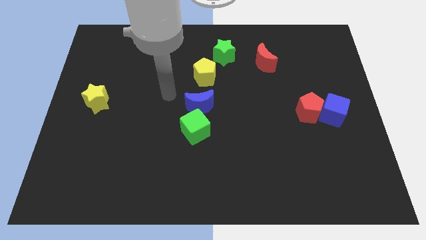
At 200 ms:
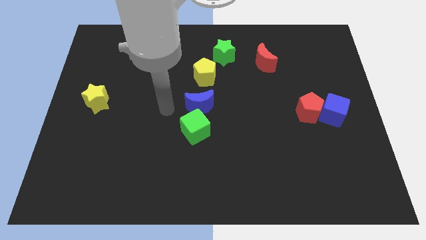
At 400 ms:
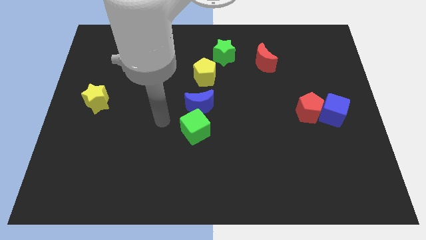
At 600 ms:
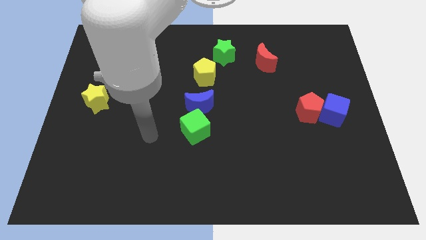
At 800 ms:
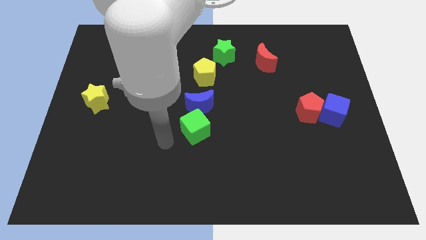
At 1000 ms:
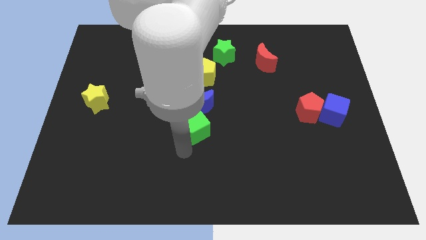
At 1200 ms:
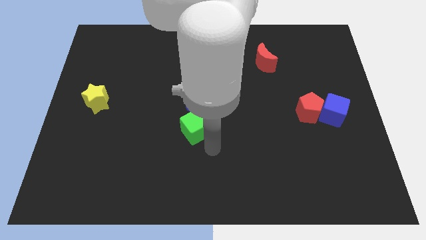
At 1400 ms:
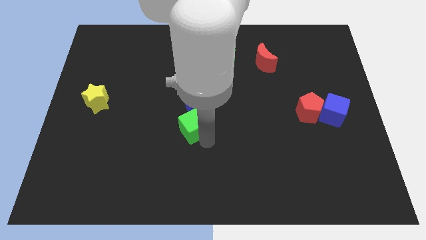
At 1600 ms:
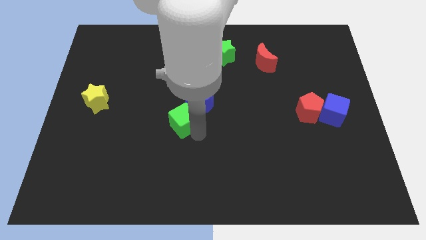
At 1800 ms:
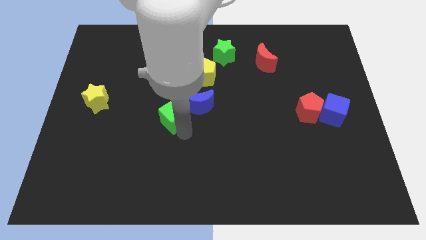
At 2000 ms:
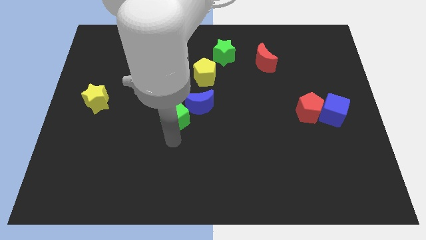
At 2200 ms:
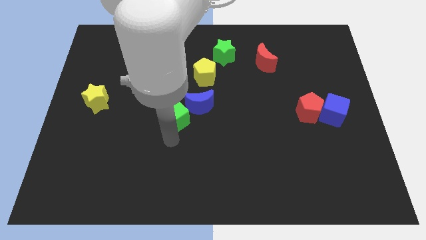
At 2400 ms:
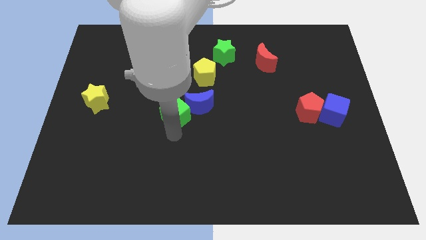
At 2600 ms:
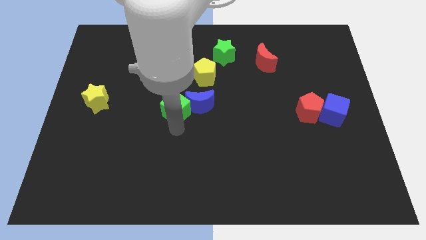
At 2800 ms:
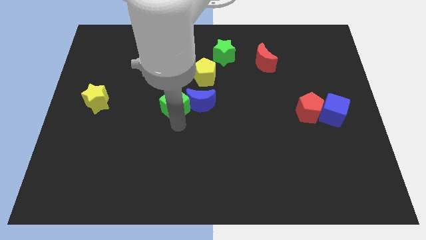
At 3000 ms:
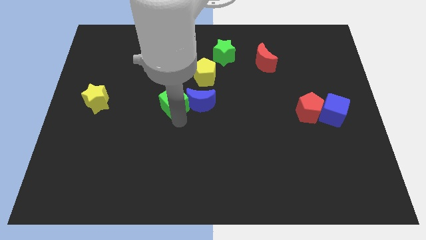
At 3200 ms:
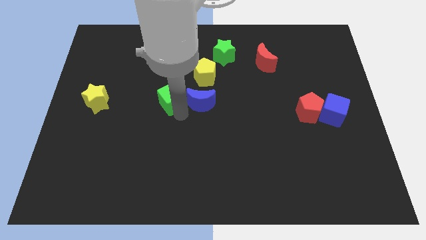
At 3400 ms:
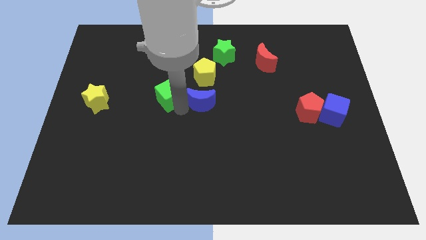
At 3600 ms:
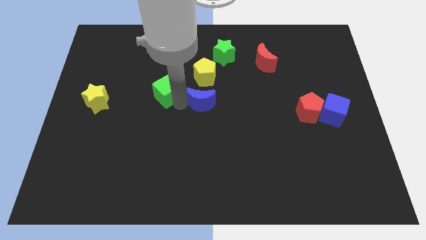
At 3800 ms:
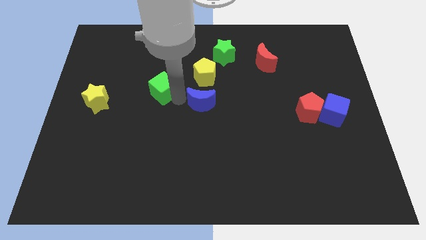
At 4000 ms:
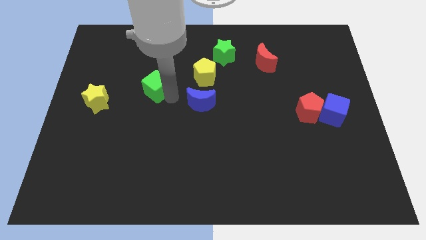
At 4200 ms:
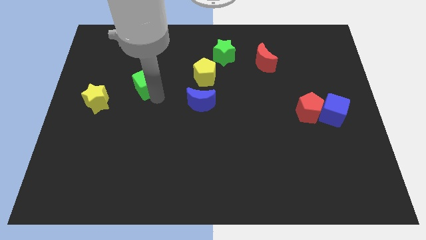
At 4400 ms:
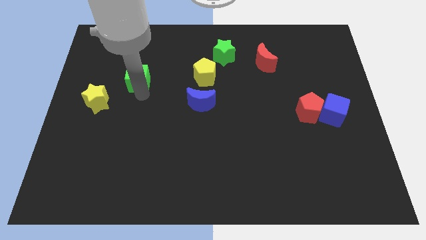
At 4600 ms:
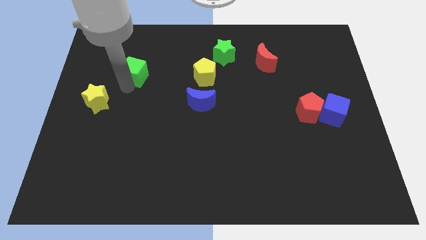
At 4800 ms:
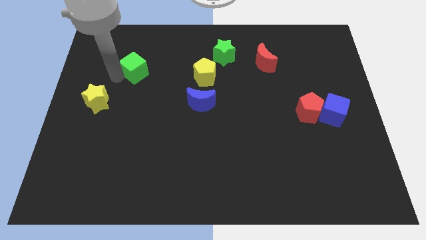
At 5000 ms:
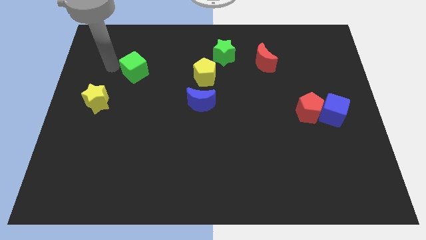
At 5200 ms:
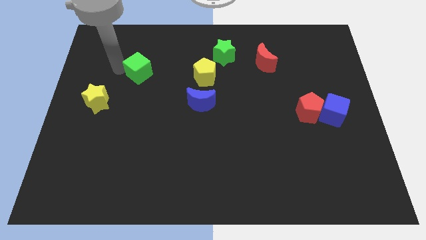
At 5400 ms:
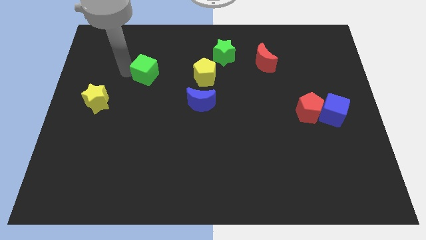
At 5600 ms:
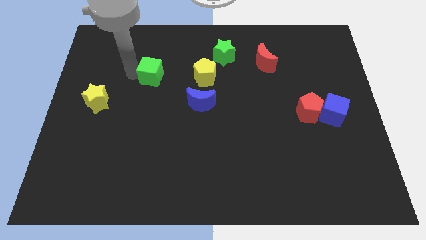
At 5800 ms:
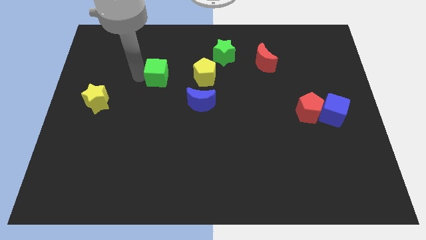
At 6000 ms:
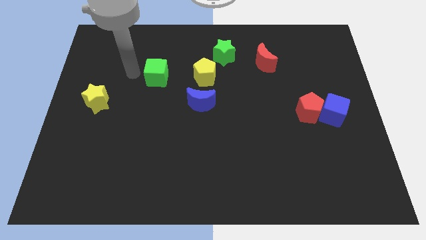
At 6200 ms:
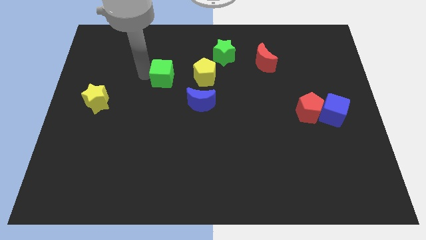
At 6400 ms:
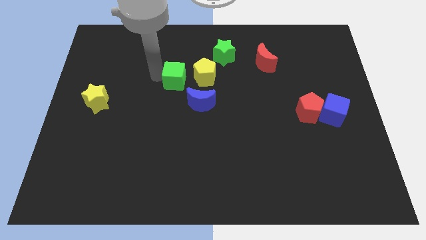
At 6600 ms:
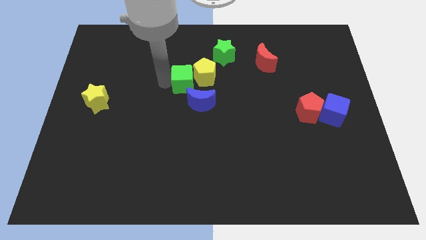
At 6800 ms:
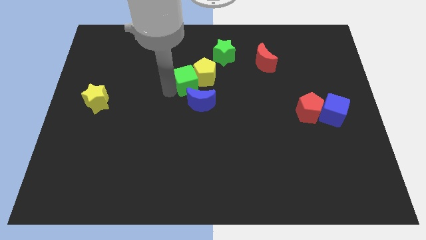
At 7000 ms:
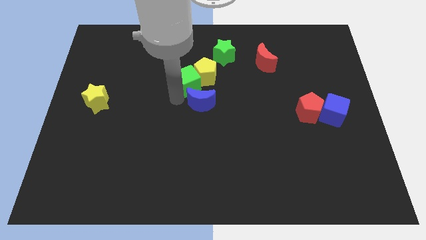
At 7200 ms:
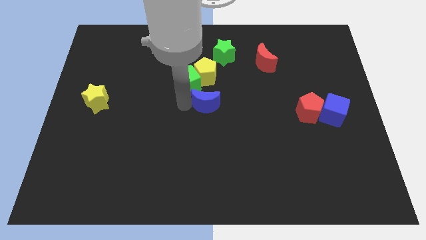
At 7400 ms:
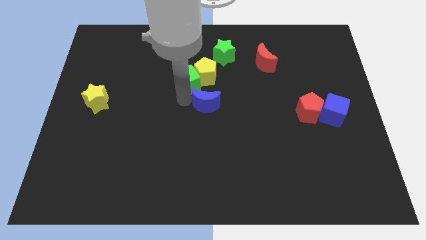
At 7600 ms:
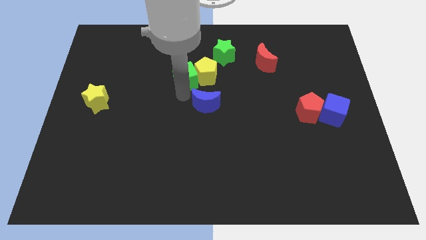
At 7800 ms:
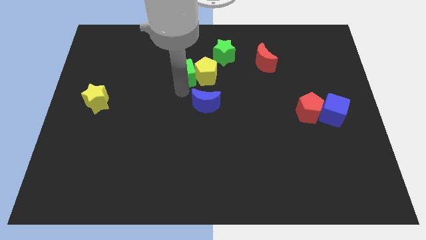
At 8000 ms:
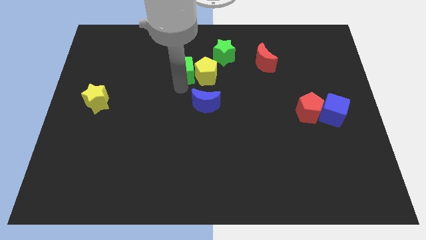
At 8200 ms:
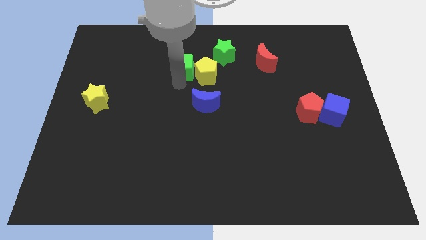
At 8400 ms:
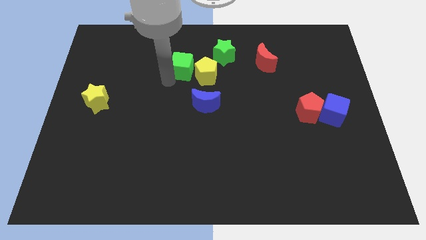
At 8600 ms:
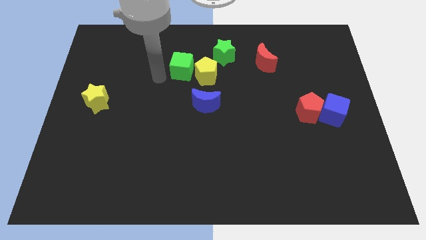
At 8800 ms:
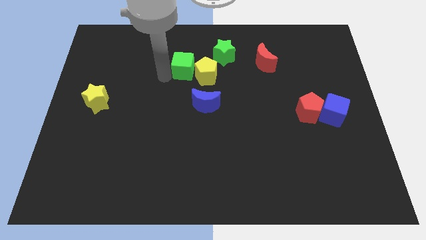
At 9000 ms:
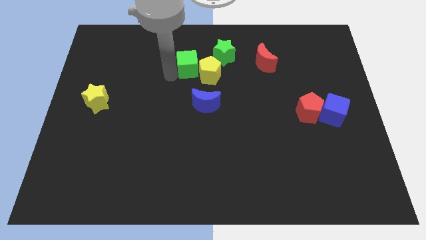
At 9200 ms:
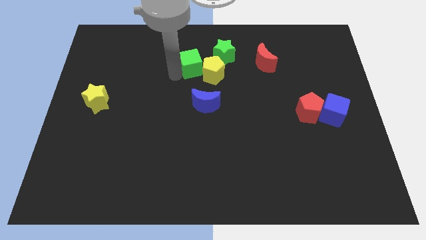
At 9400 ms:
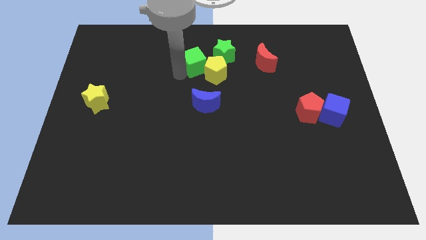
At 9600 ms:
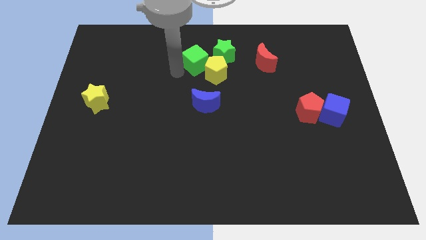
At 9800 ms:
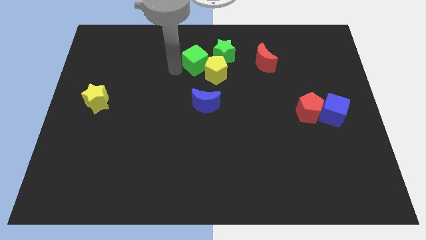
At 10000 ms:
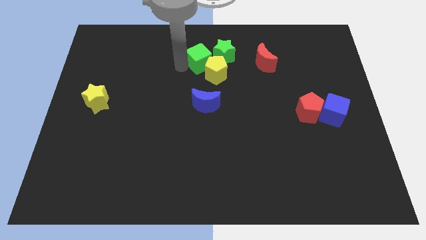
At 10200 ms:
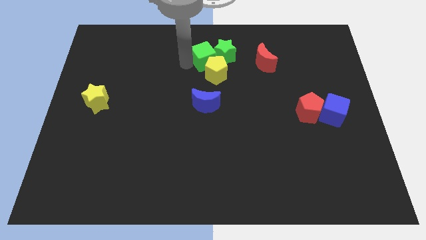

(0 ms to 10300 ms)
move the green cube towards the green star

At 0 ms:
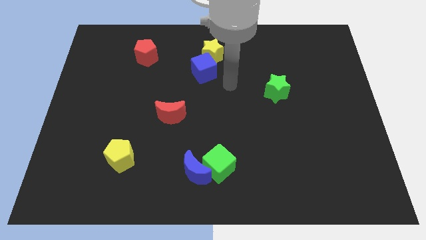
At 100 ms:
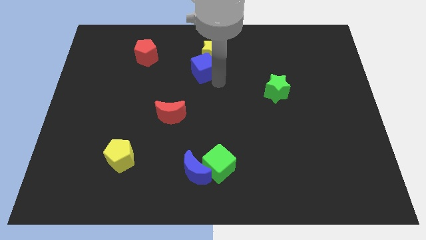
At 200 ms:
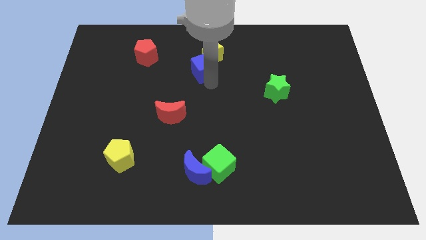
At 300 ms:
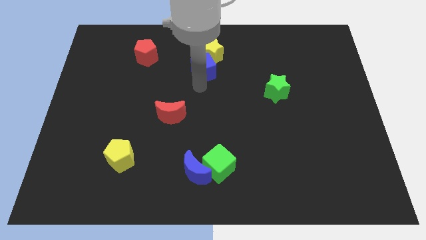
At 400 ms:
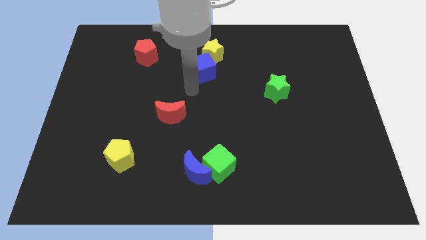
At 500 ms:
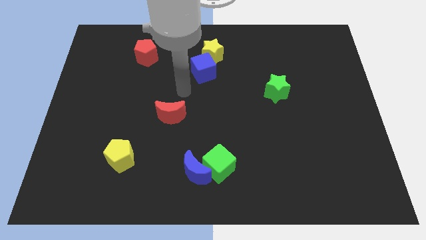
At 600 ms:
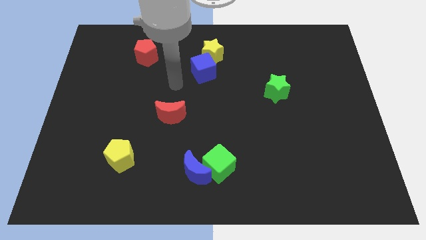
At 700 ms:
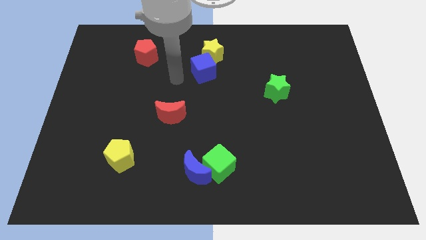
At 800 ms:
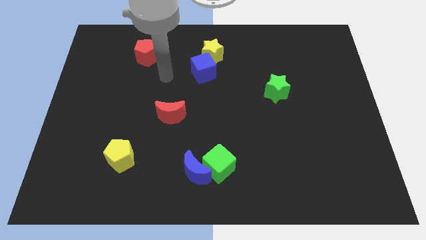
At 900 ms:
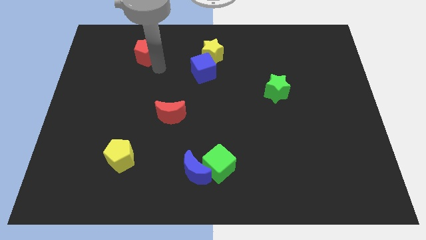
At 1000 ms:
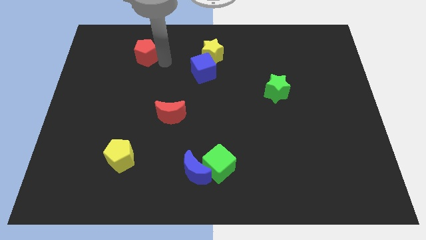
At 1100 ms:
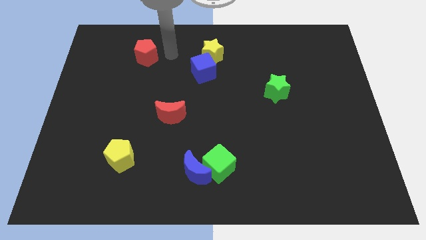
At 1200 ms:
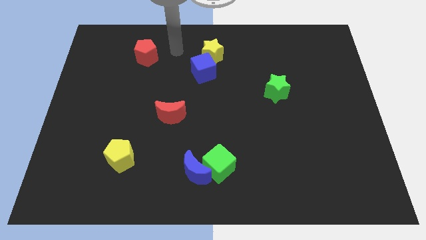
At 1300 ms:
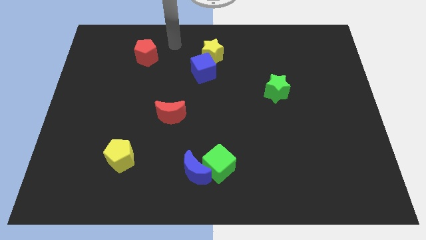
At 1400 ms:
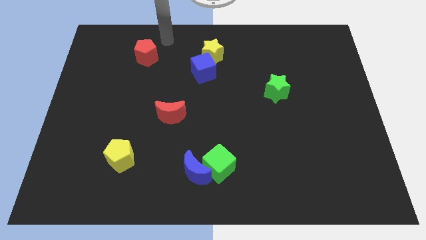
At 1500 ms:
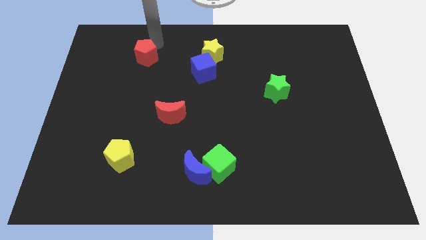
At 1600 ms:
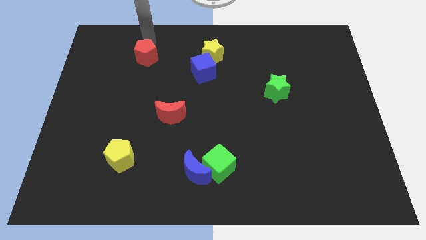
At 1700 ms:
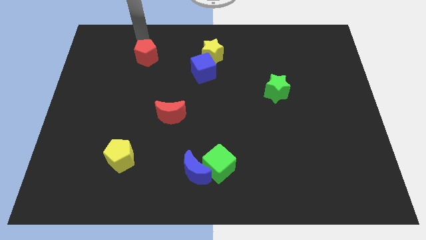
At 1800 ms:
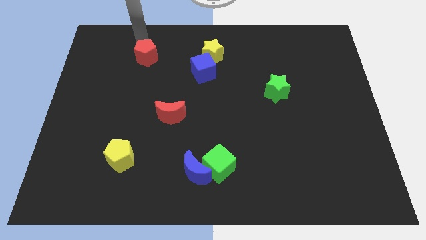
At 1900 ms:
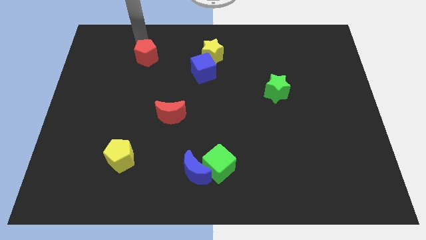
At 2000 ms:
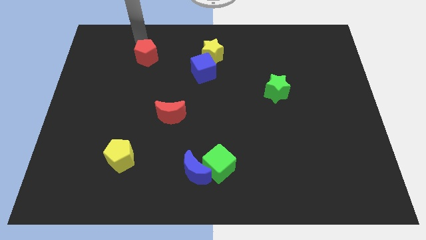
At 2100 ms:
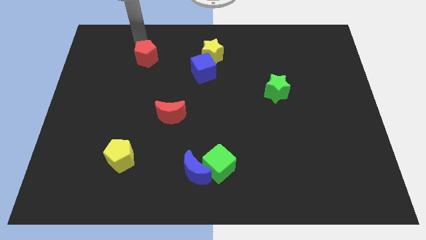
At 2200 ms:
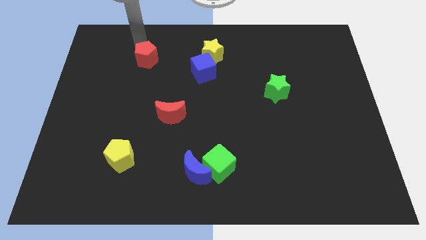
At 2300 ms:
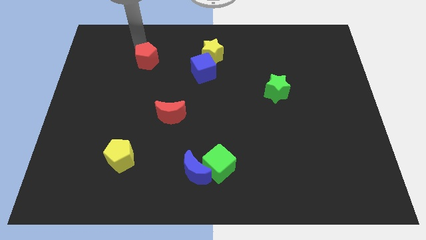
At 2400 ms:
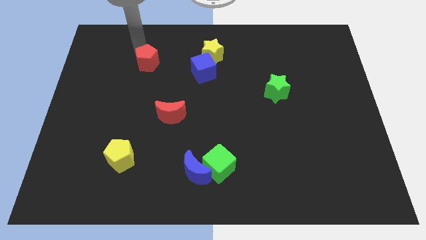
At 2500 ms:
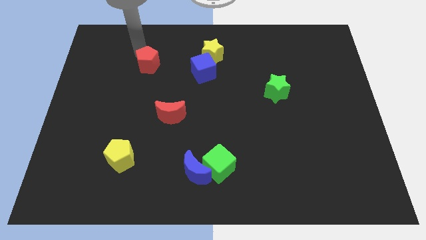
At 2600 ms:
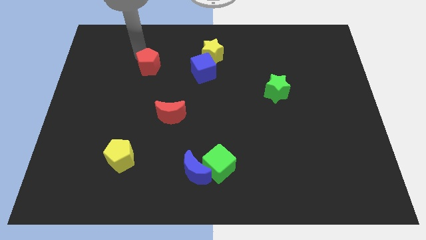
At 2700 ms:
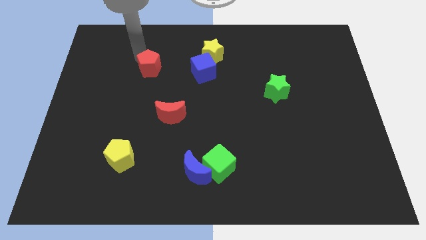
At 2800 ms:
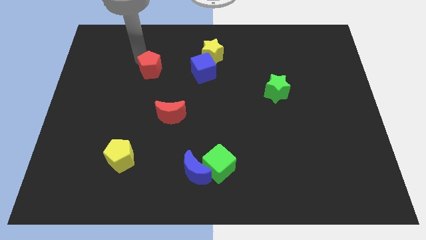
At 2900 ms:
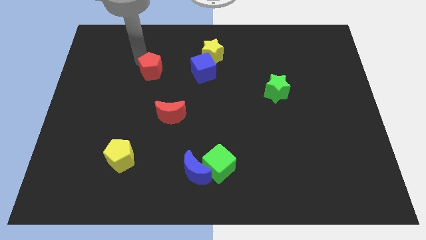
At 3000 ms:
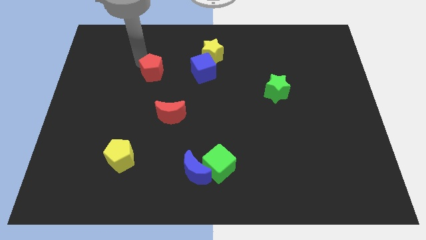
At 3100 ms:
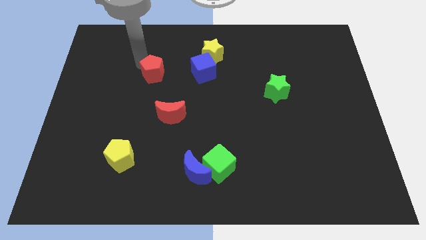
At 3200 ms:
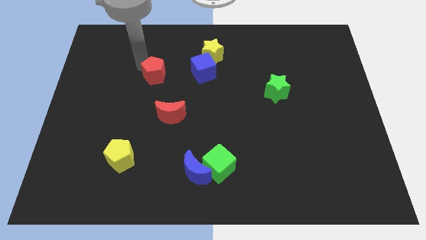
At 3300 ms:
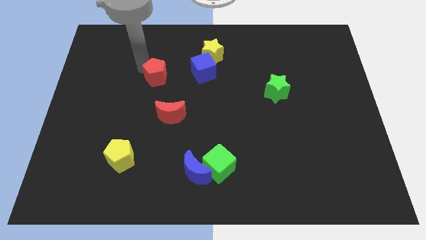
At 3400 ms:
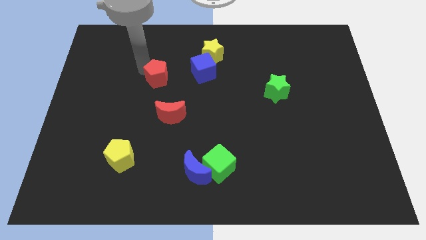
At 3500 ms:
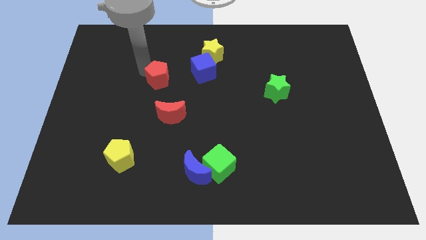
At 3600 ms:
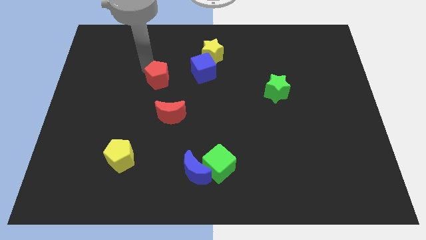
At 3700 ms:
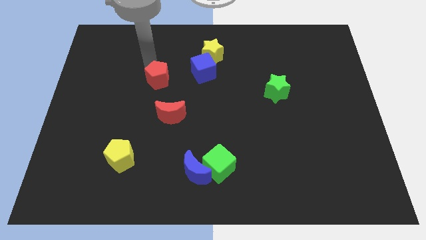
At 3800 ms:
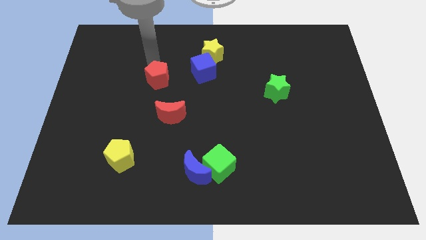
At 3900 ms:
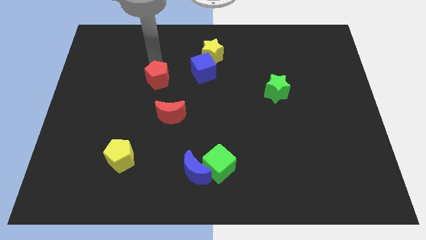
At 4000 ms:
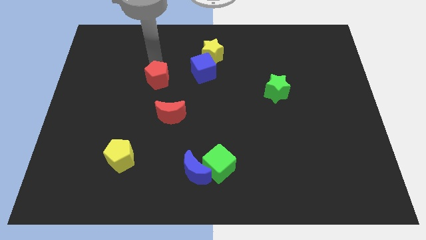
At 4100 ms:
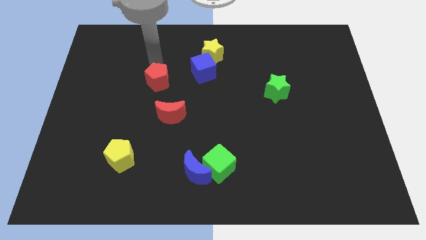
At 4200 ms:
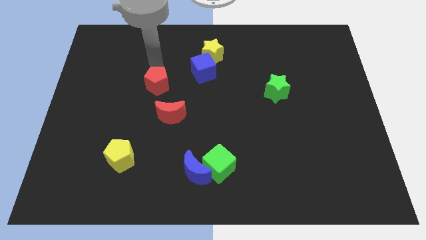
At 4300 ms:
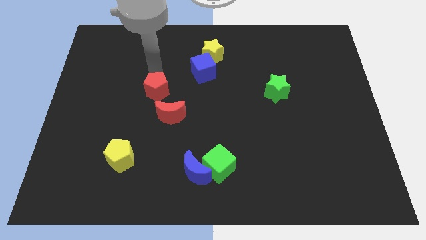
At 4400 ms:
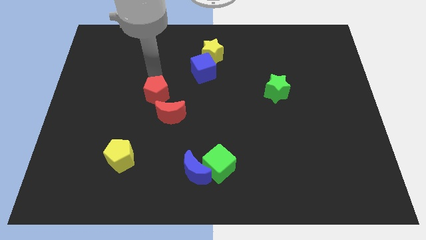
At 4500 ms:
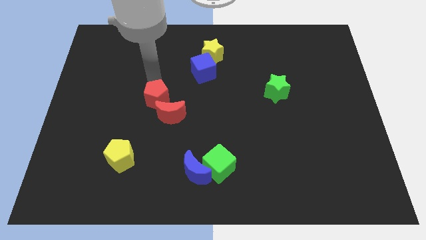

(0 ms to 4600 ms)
slide the red pentagon towards the red moon
